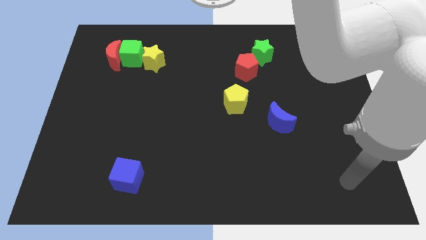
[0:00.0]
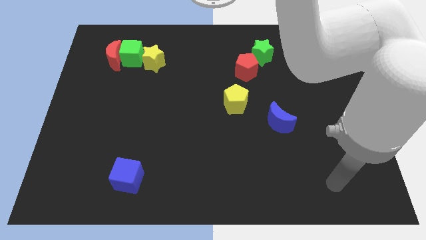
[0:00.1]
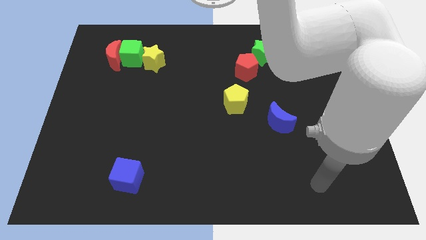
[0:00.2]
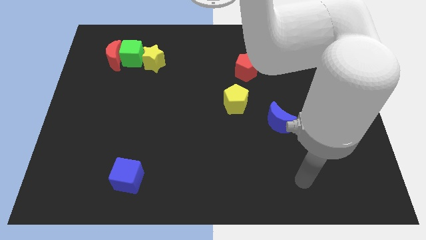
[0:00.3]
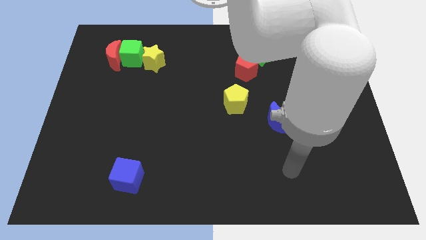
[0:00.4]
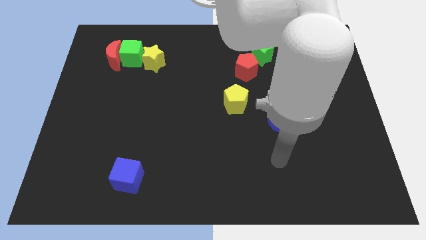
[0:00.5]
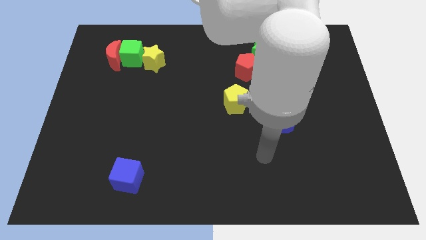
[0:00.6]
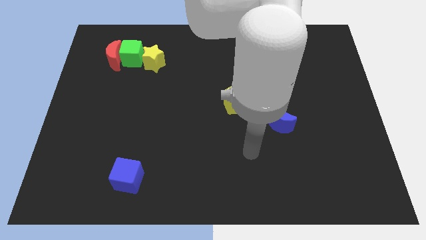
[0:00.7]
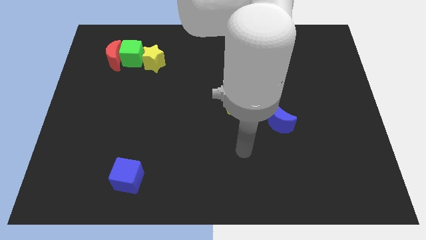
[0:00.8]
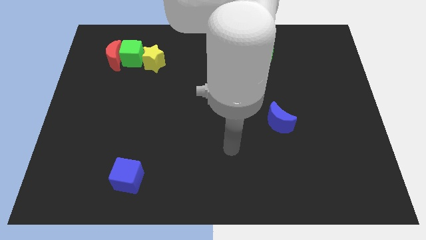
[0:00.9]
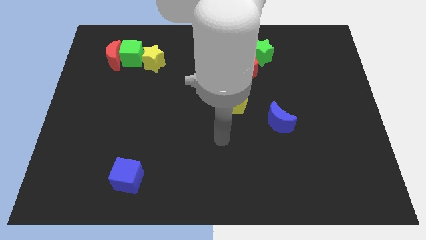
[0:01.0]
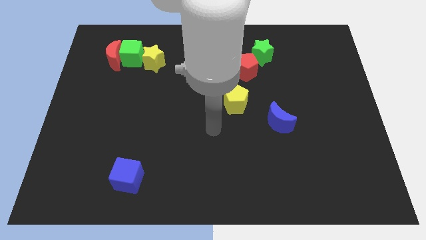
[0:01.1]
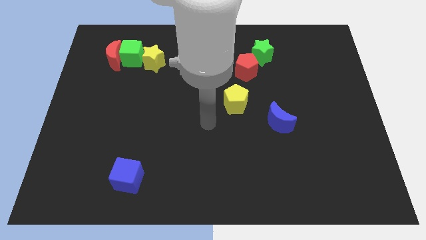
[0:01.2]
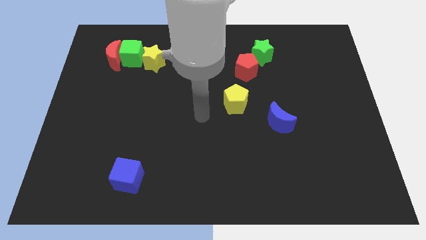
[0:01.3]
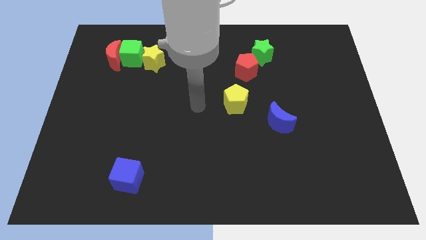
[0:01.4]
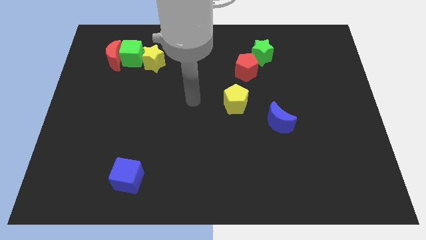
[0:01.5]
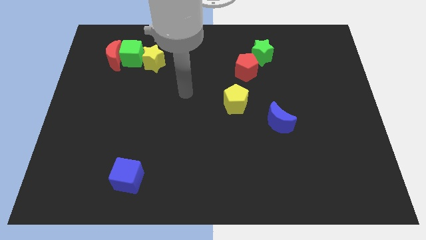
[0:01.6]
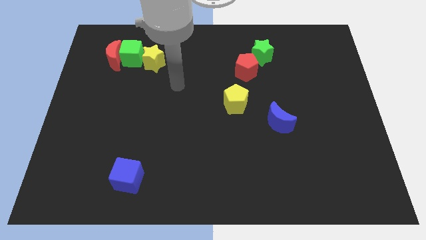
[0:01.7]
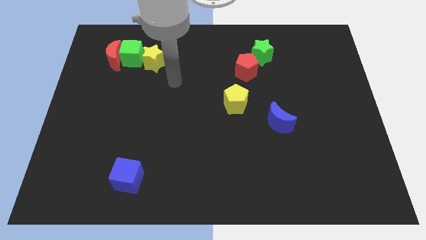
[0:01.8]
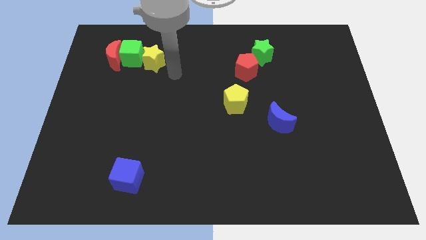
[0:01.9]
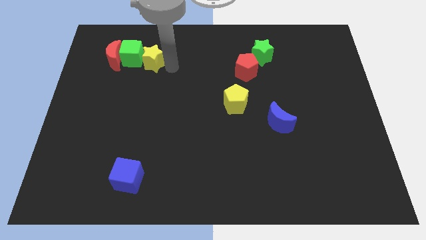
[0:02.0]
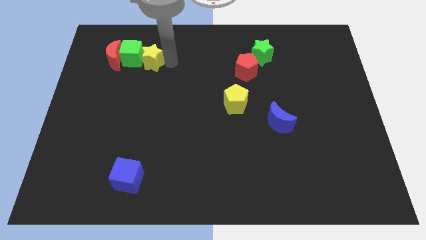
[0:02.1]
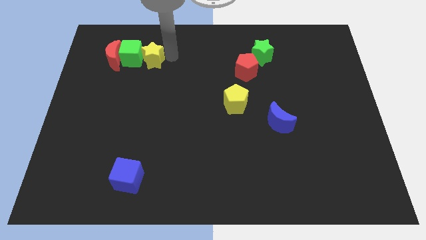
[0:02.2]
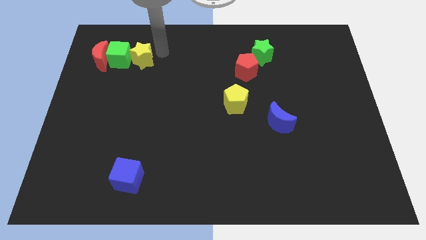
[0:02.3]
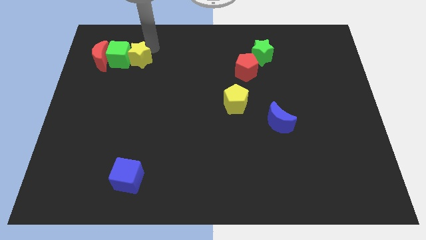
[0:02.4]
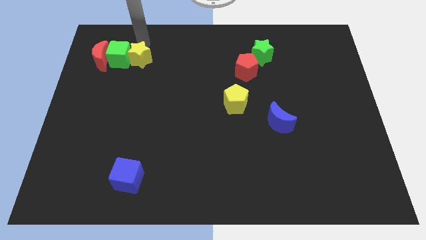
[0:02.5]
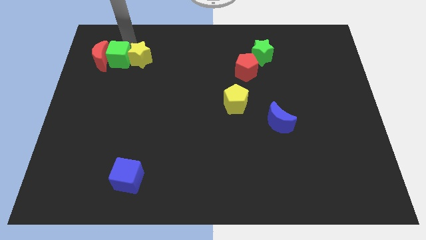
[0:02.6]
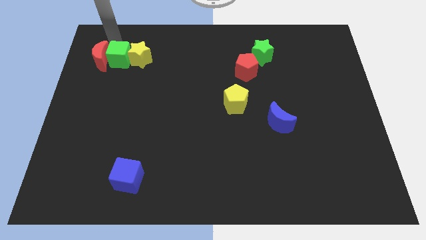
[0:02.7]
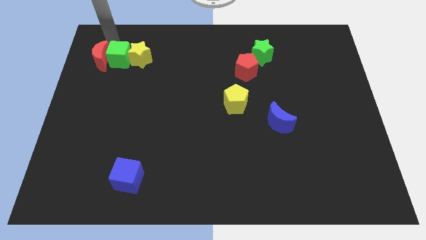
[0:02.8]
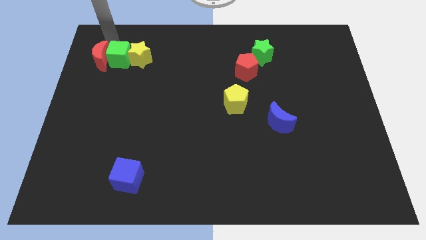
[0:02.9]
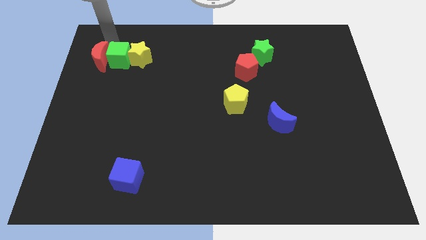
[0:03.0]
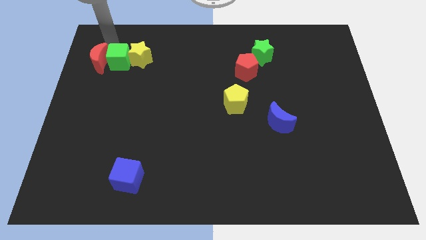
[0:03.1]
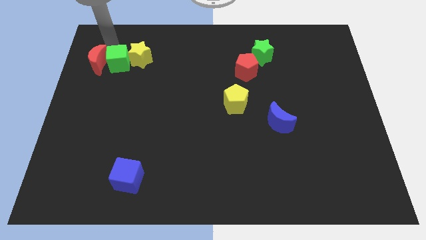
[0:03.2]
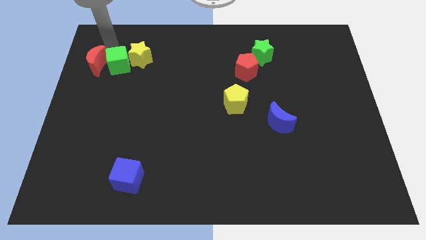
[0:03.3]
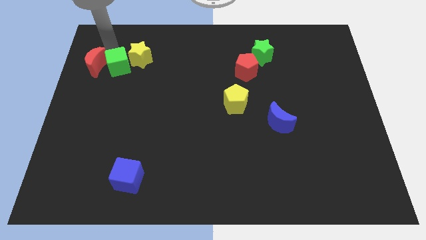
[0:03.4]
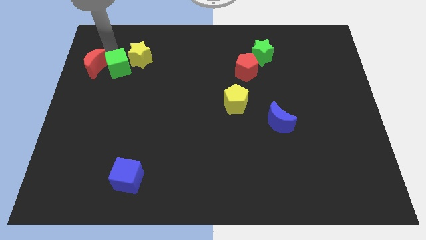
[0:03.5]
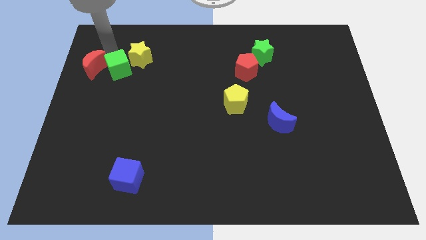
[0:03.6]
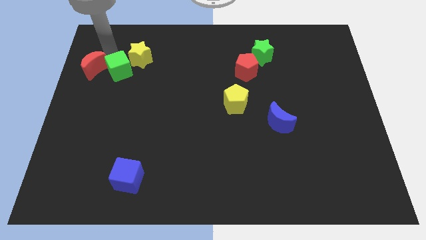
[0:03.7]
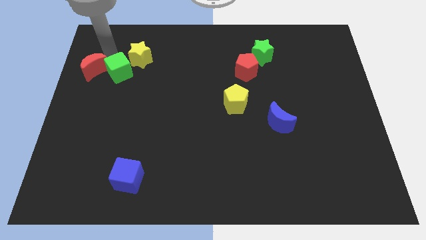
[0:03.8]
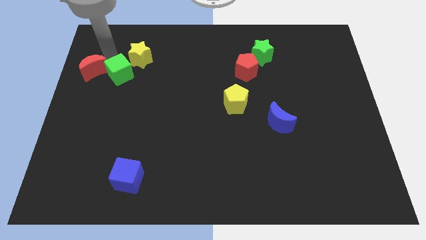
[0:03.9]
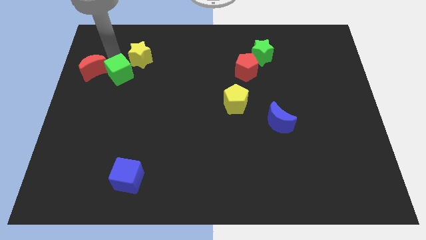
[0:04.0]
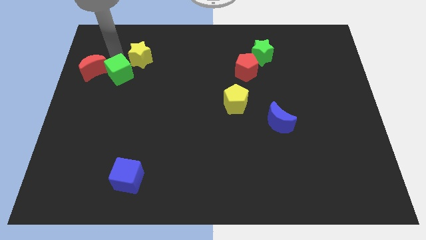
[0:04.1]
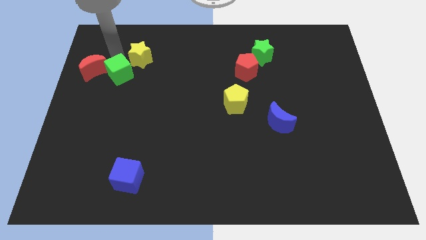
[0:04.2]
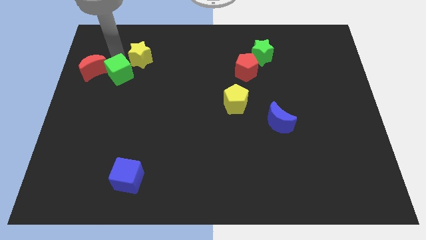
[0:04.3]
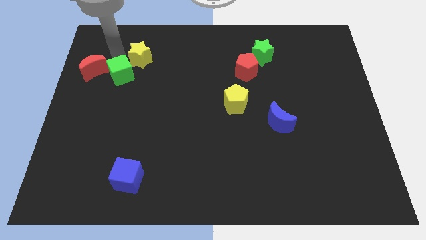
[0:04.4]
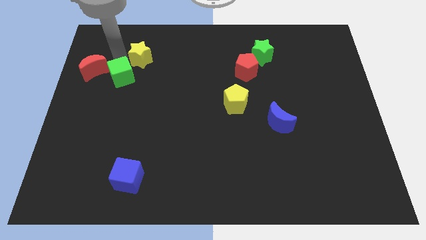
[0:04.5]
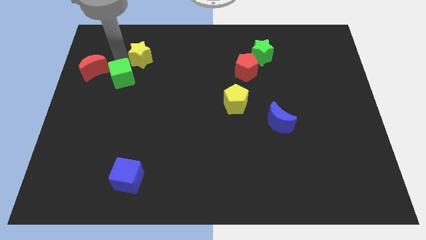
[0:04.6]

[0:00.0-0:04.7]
move the green cube downwards a little

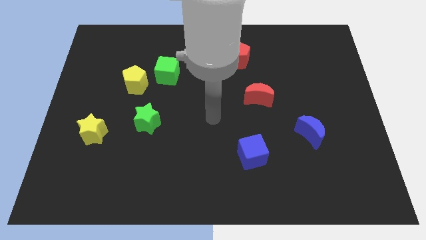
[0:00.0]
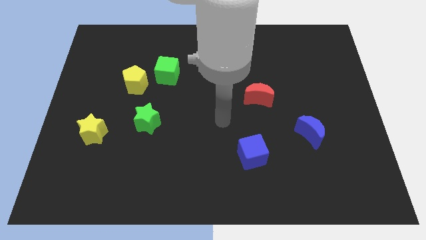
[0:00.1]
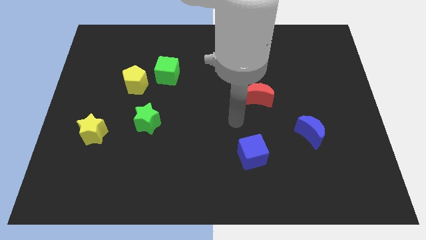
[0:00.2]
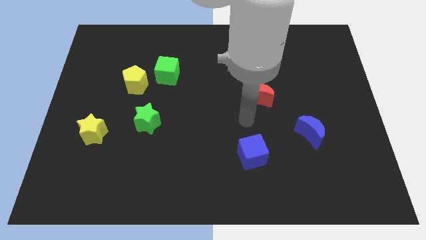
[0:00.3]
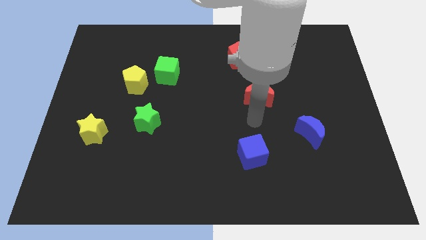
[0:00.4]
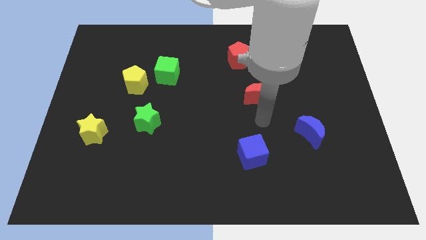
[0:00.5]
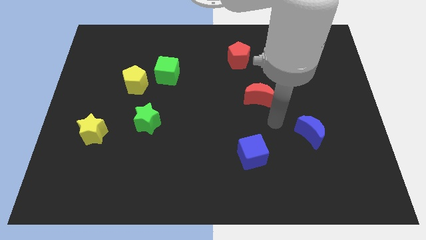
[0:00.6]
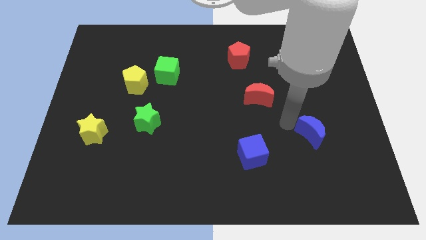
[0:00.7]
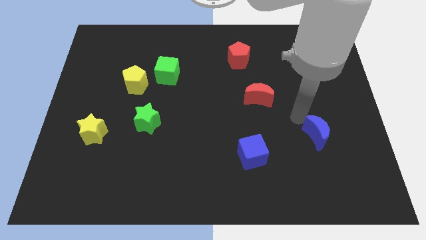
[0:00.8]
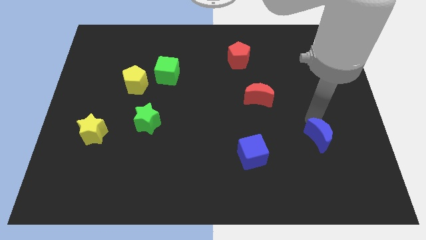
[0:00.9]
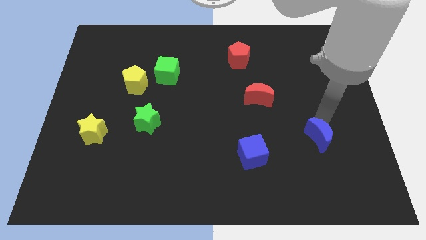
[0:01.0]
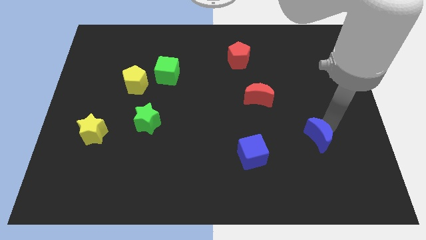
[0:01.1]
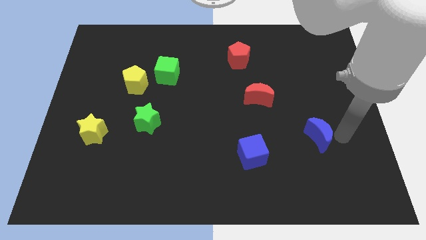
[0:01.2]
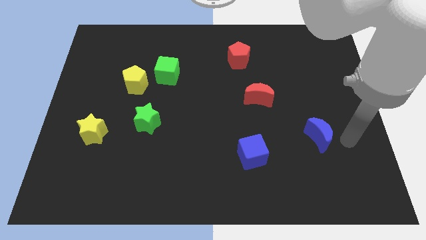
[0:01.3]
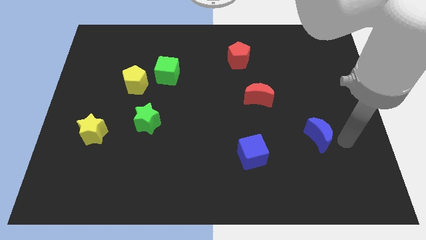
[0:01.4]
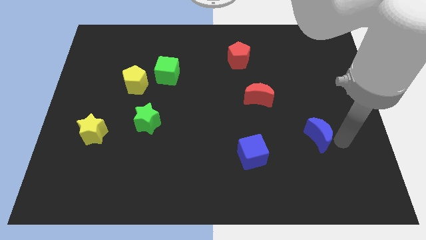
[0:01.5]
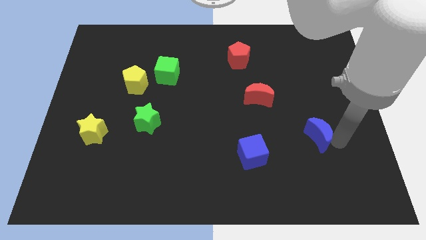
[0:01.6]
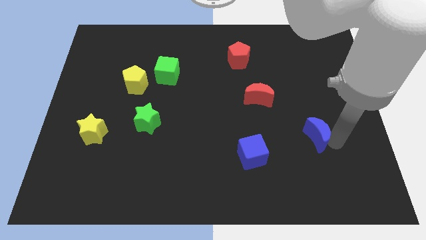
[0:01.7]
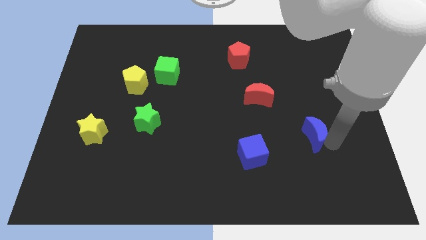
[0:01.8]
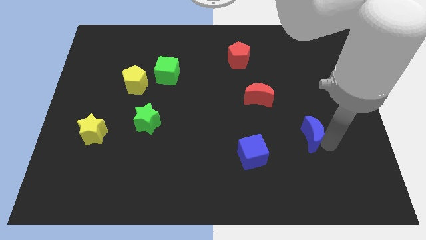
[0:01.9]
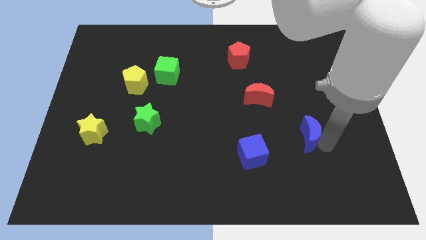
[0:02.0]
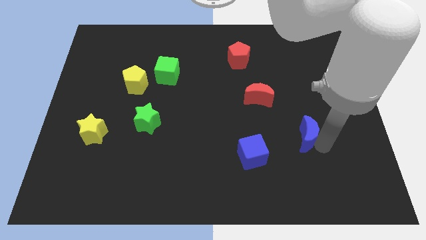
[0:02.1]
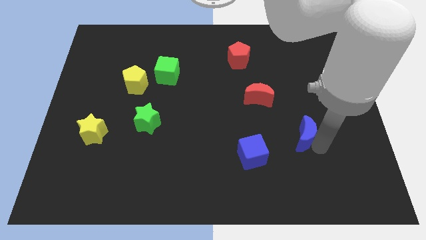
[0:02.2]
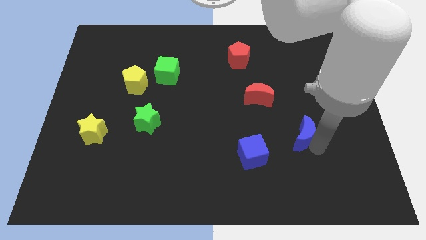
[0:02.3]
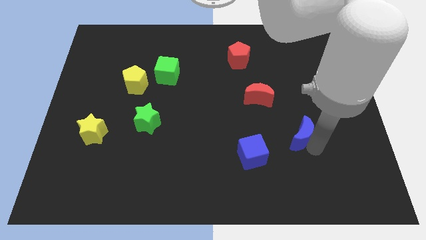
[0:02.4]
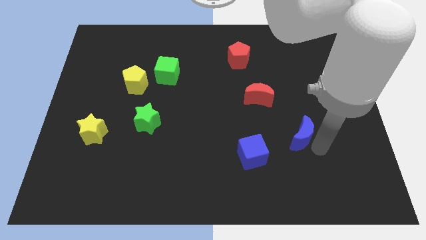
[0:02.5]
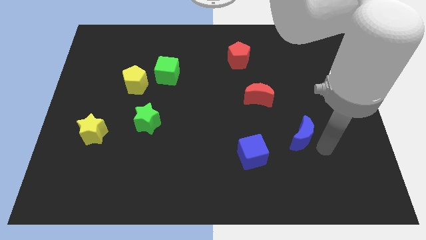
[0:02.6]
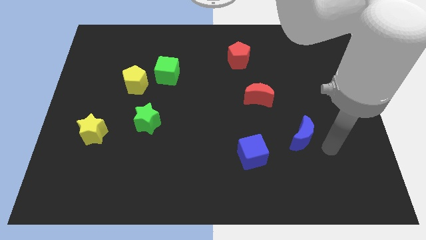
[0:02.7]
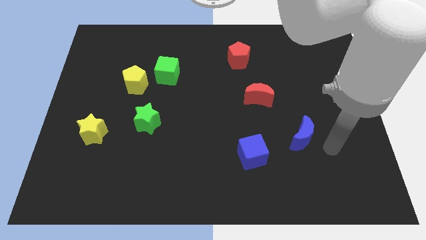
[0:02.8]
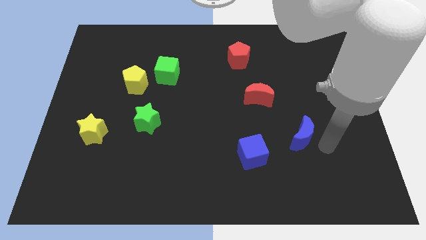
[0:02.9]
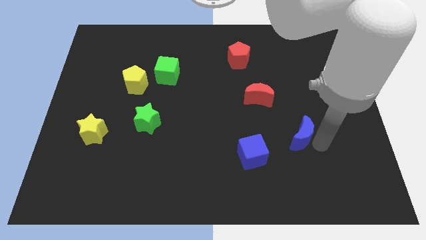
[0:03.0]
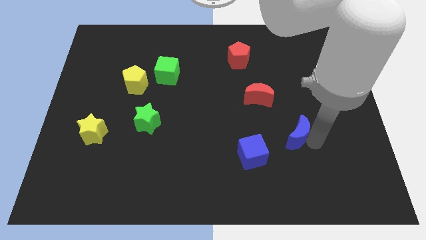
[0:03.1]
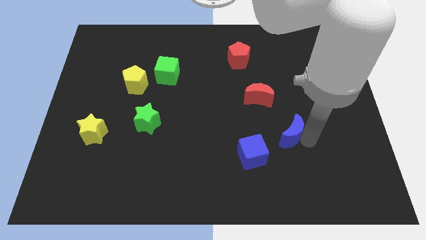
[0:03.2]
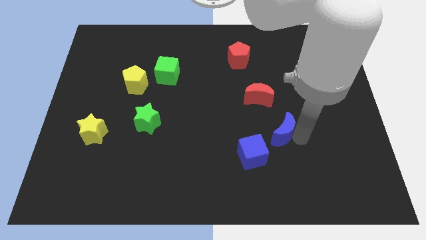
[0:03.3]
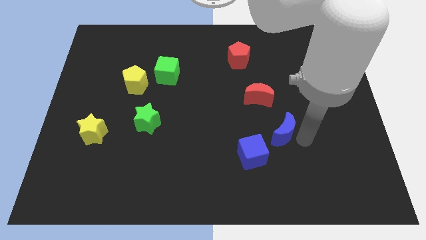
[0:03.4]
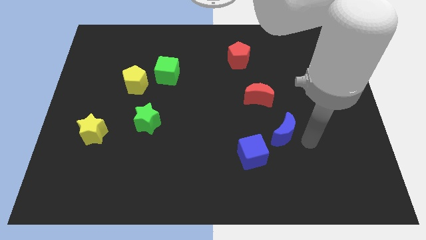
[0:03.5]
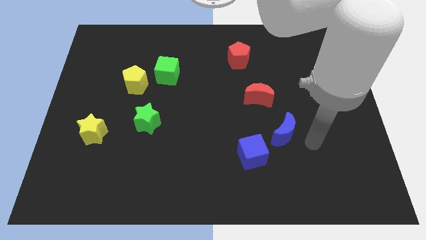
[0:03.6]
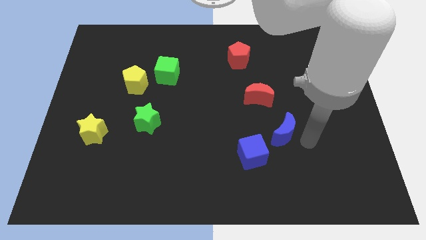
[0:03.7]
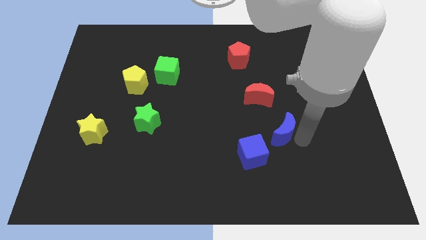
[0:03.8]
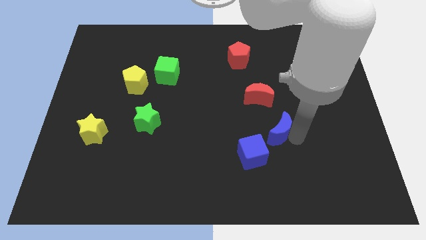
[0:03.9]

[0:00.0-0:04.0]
slightly slide the blue moon to the left
